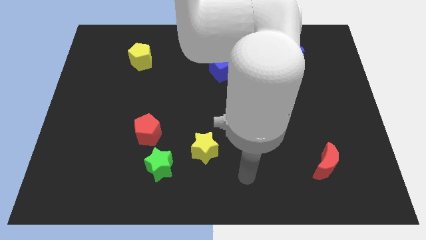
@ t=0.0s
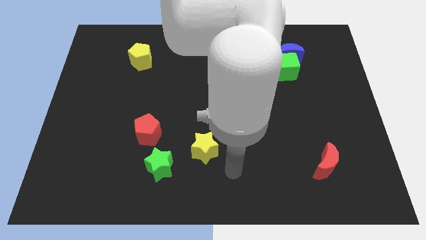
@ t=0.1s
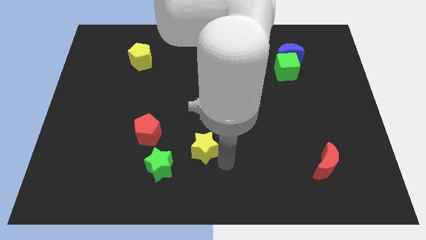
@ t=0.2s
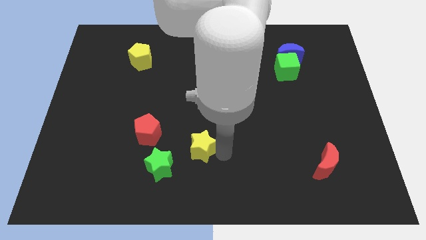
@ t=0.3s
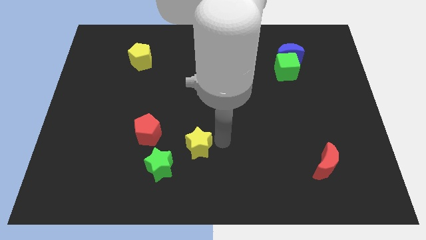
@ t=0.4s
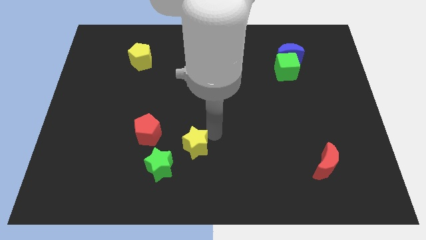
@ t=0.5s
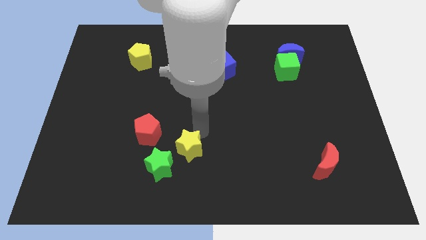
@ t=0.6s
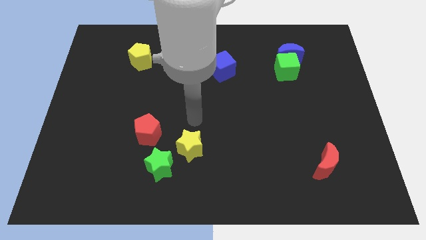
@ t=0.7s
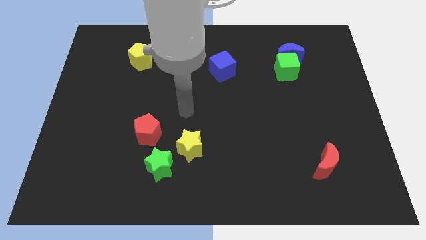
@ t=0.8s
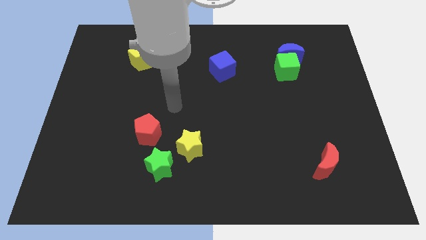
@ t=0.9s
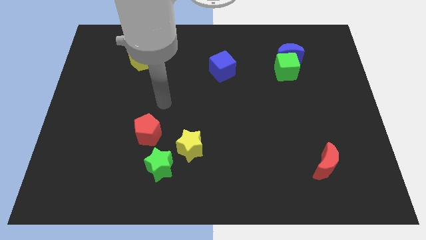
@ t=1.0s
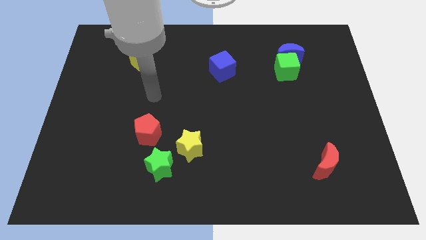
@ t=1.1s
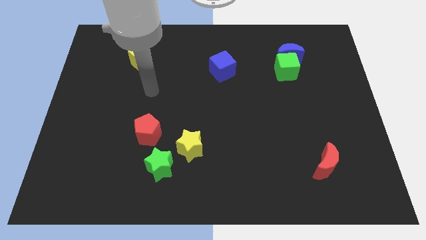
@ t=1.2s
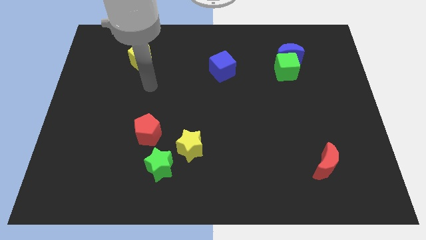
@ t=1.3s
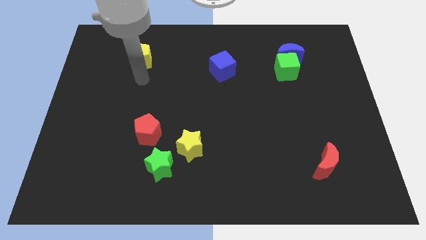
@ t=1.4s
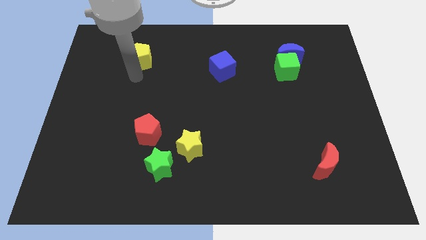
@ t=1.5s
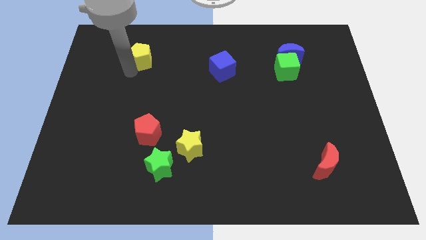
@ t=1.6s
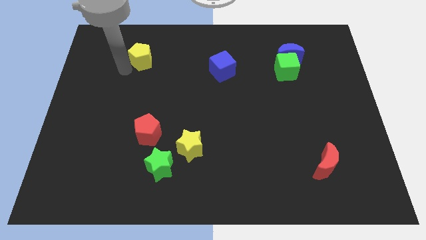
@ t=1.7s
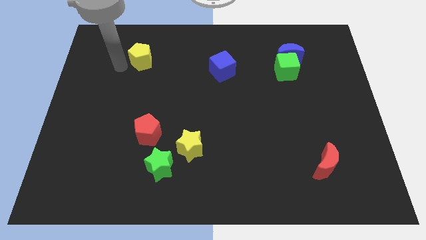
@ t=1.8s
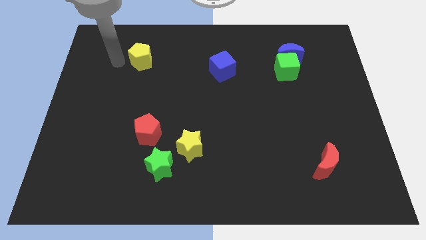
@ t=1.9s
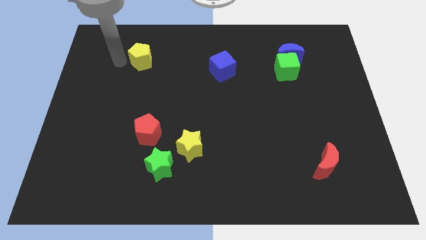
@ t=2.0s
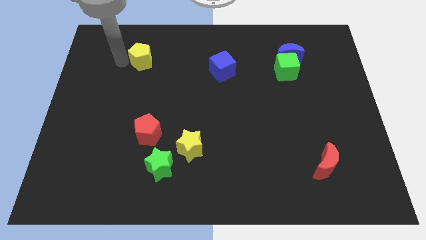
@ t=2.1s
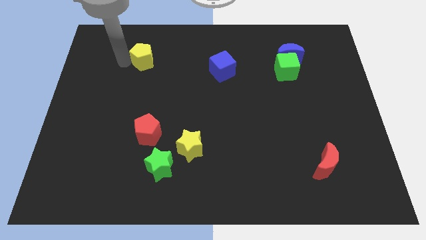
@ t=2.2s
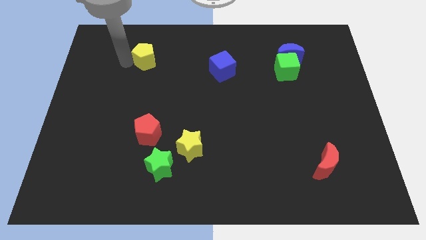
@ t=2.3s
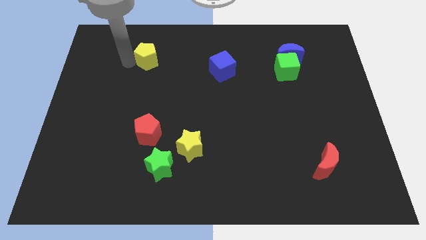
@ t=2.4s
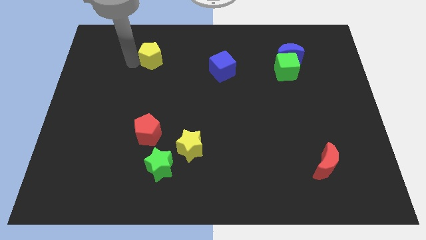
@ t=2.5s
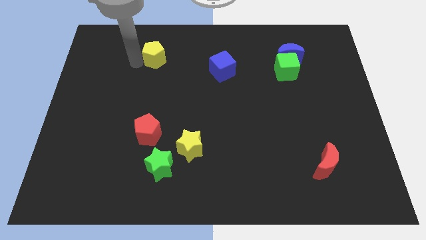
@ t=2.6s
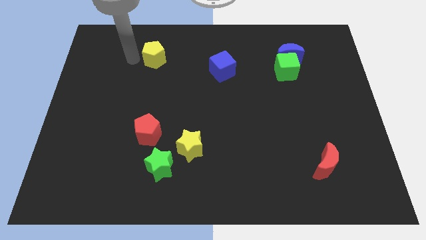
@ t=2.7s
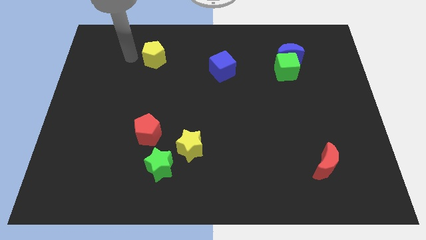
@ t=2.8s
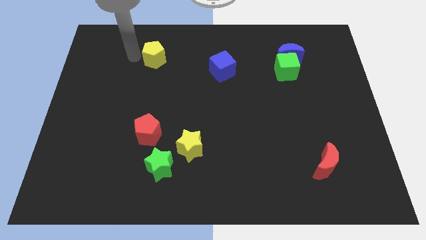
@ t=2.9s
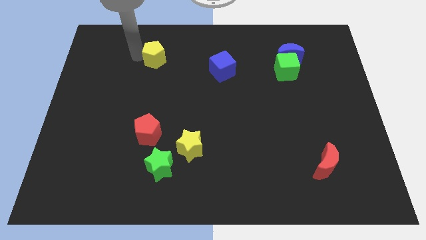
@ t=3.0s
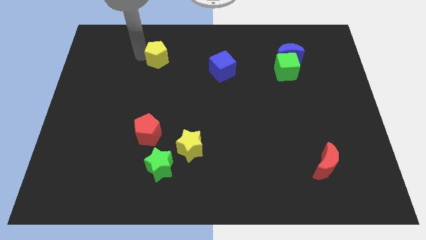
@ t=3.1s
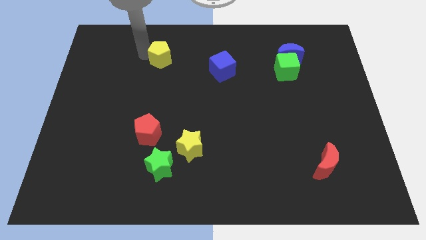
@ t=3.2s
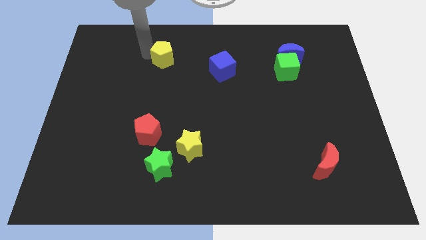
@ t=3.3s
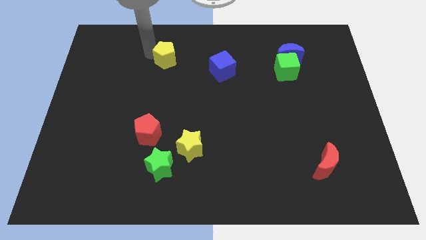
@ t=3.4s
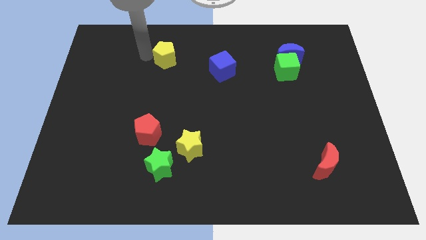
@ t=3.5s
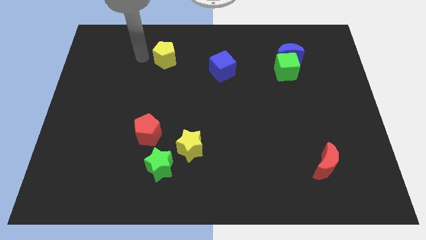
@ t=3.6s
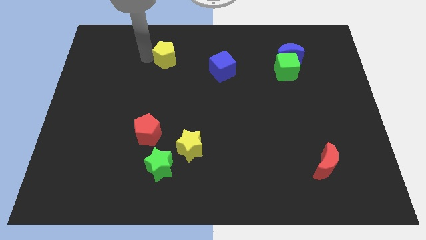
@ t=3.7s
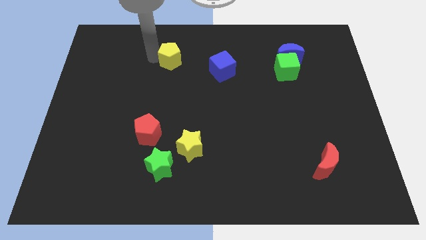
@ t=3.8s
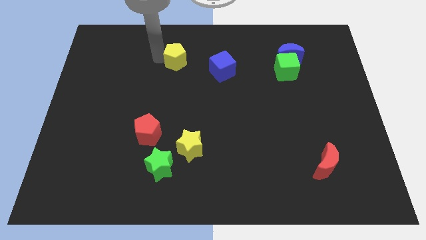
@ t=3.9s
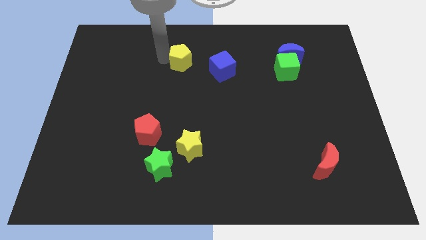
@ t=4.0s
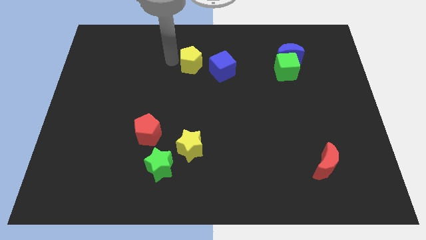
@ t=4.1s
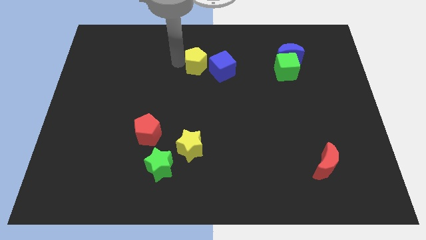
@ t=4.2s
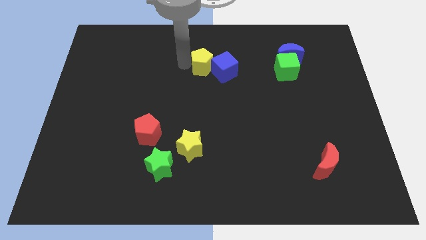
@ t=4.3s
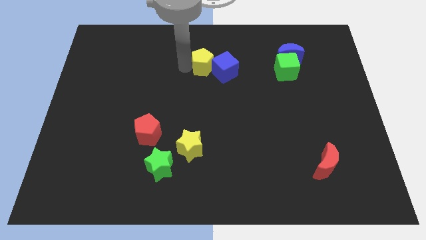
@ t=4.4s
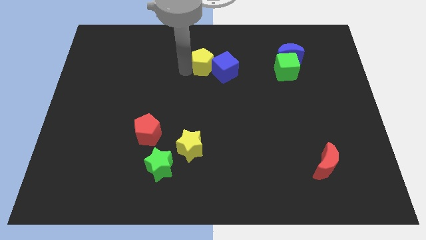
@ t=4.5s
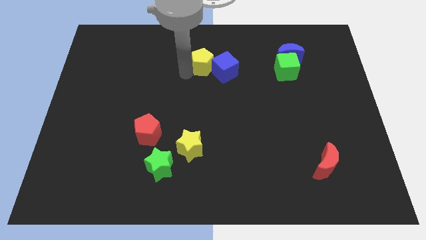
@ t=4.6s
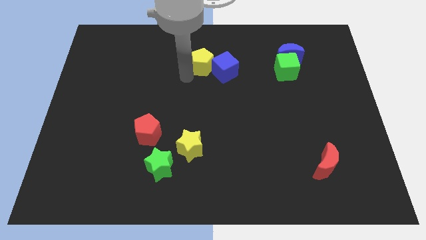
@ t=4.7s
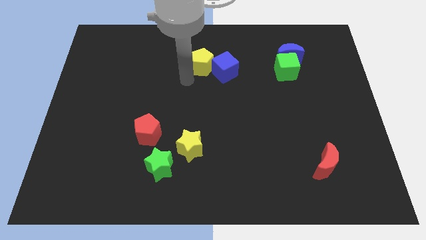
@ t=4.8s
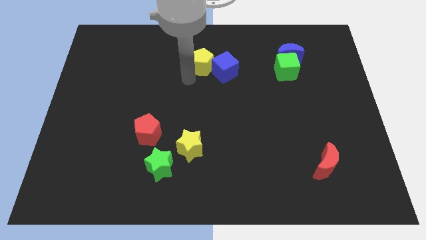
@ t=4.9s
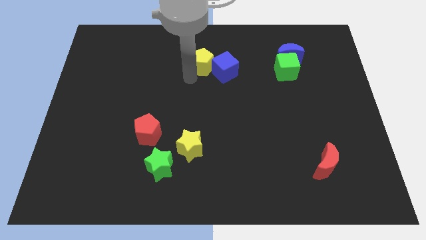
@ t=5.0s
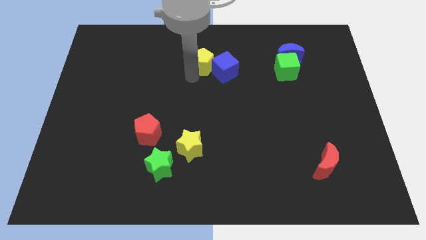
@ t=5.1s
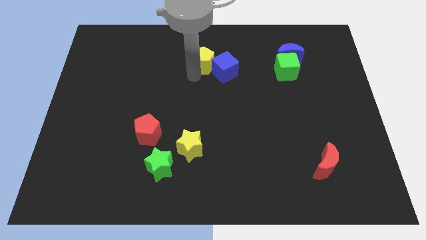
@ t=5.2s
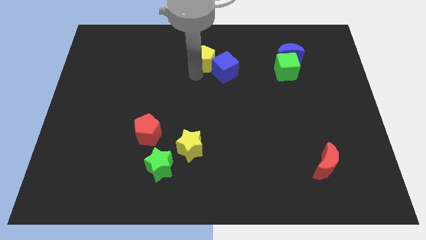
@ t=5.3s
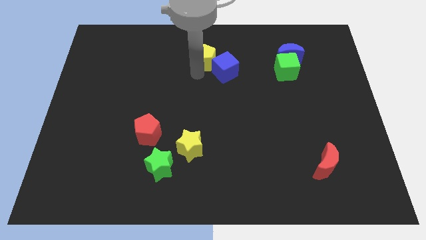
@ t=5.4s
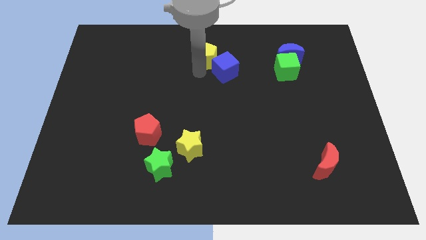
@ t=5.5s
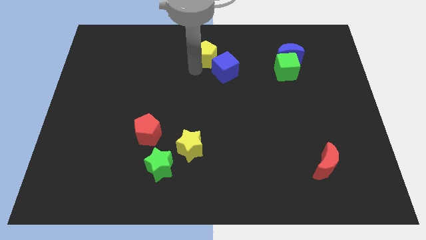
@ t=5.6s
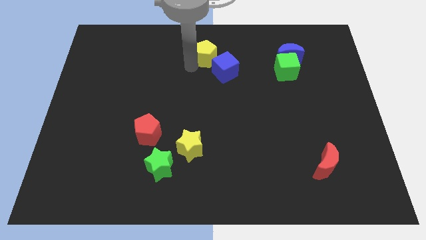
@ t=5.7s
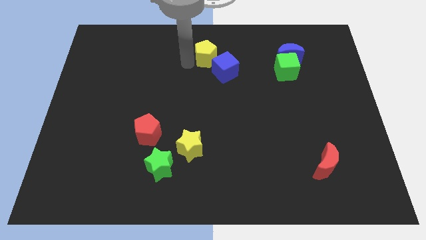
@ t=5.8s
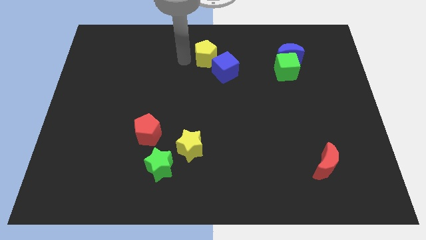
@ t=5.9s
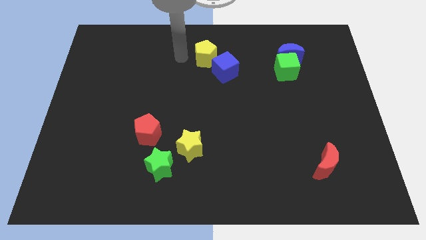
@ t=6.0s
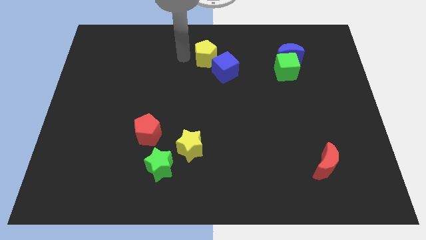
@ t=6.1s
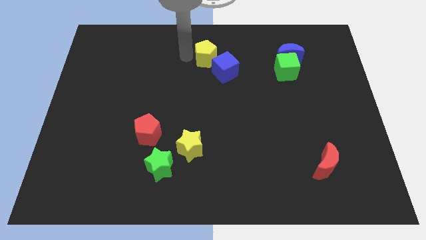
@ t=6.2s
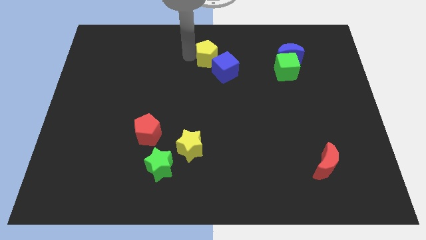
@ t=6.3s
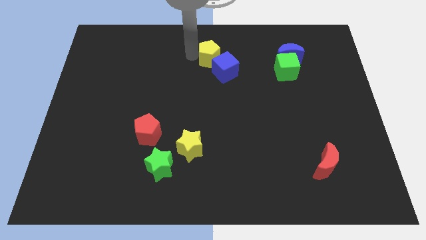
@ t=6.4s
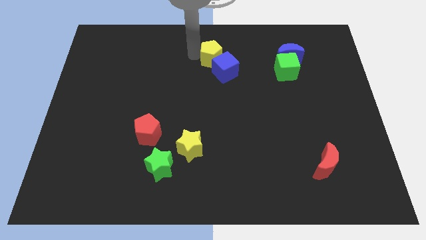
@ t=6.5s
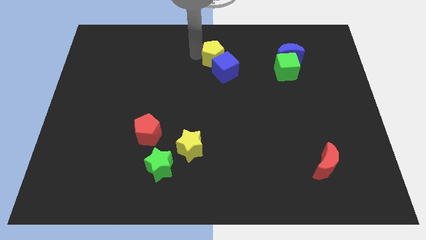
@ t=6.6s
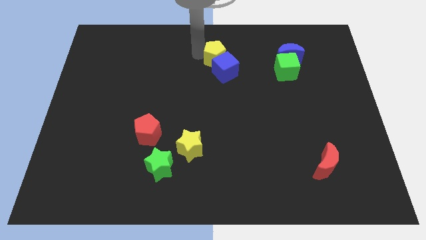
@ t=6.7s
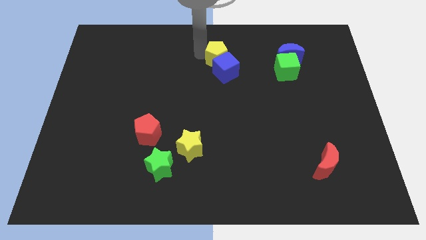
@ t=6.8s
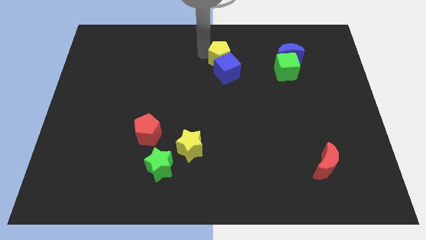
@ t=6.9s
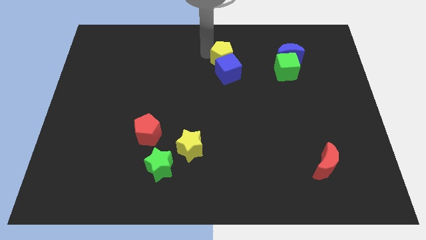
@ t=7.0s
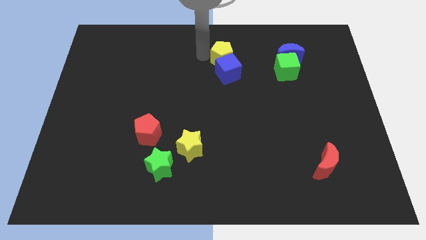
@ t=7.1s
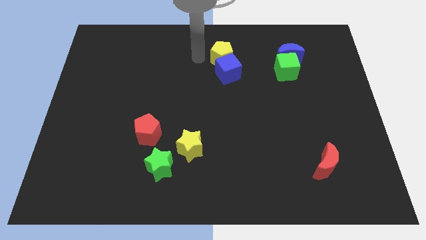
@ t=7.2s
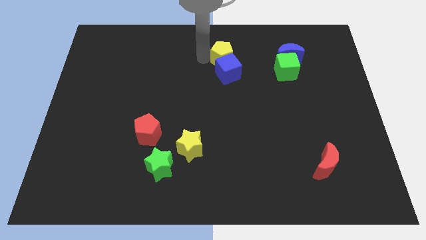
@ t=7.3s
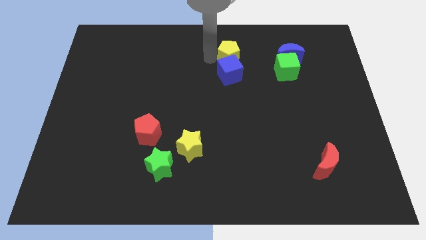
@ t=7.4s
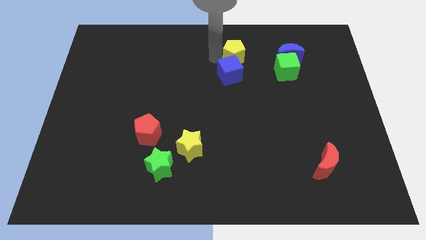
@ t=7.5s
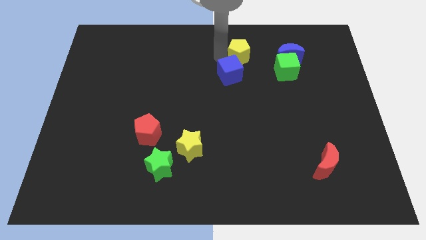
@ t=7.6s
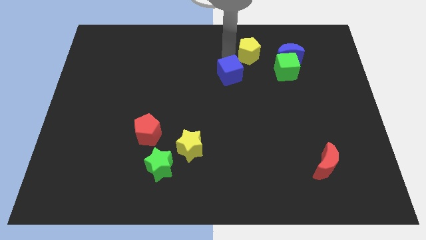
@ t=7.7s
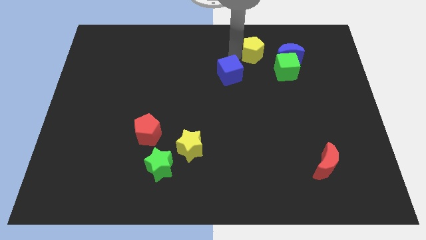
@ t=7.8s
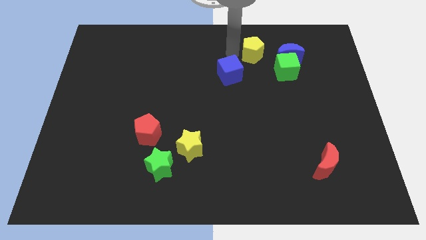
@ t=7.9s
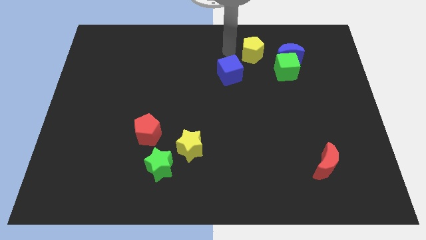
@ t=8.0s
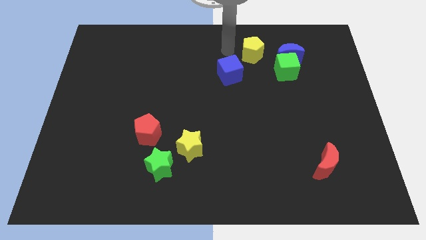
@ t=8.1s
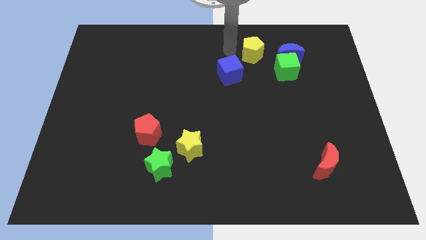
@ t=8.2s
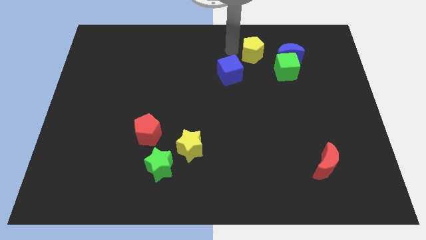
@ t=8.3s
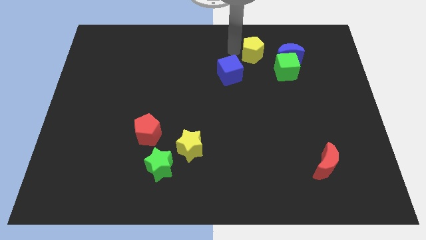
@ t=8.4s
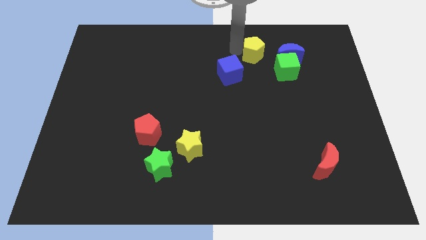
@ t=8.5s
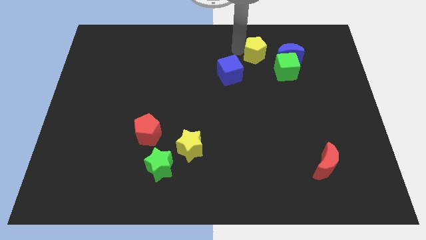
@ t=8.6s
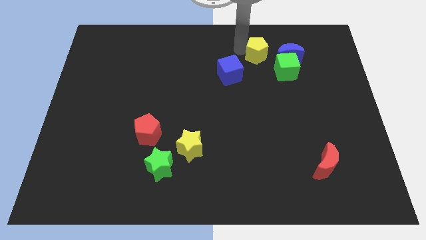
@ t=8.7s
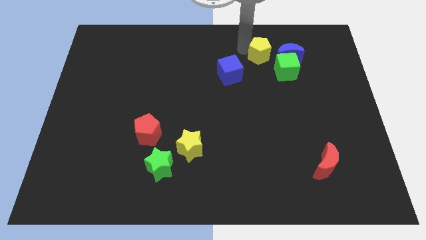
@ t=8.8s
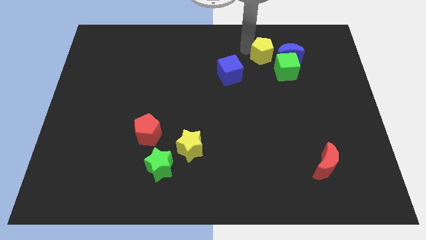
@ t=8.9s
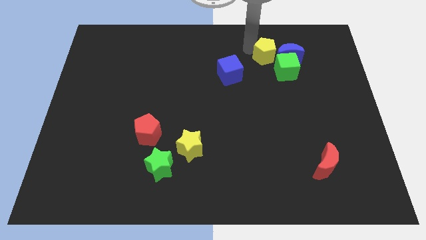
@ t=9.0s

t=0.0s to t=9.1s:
move the yellow pentagon next to the blue moon
